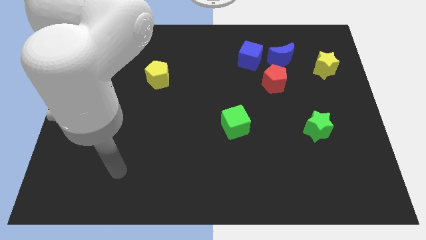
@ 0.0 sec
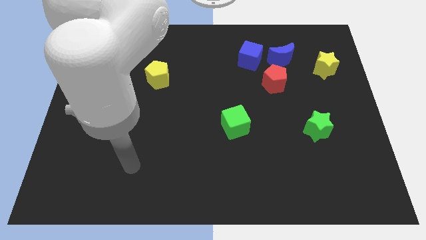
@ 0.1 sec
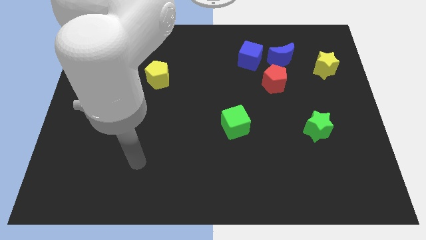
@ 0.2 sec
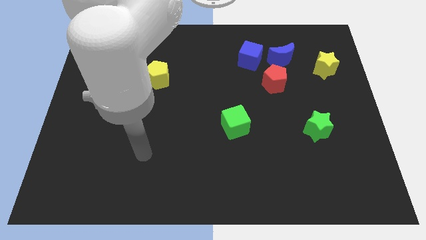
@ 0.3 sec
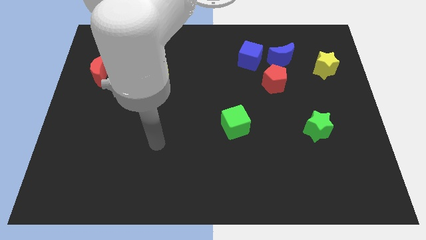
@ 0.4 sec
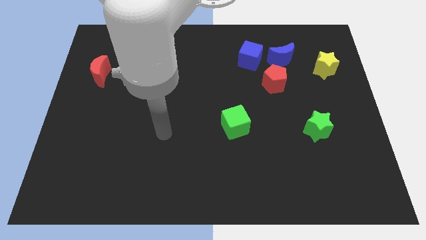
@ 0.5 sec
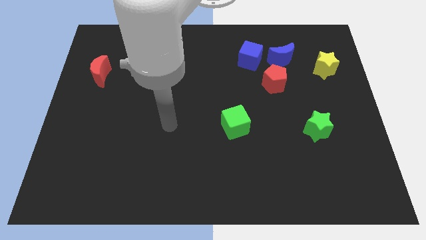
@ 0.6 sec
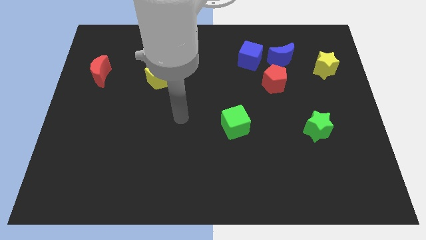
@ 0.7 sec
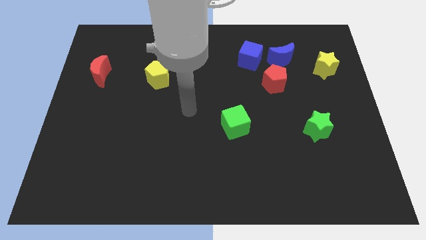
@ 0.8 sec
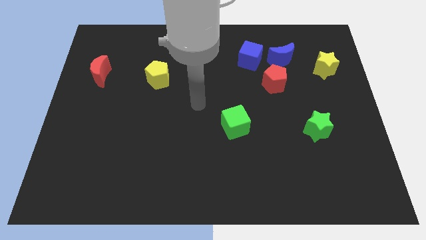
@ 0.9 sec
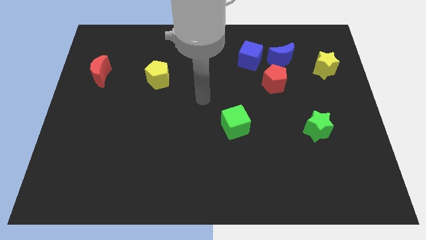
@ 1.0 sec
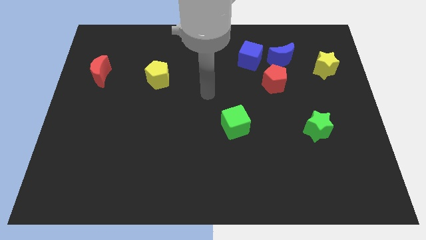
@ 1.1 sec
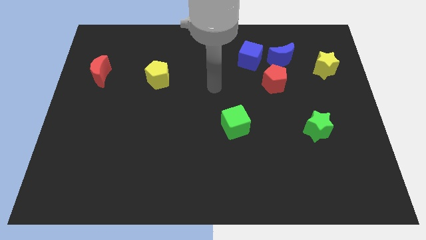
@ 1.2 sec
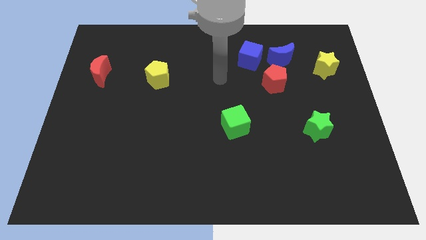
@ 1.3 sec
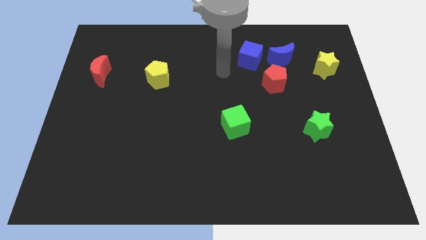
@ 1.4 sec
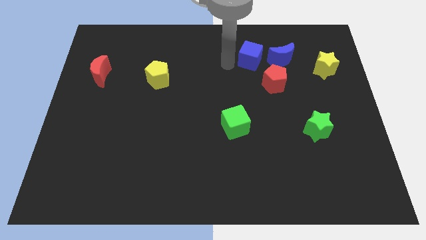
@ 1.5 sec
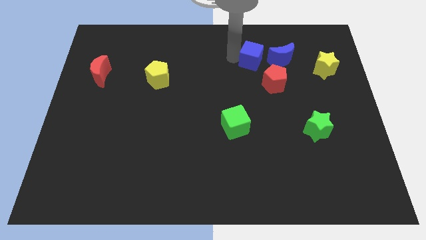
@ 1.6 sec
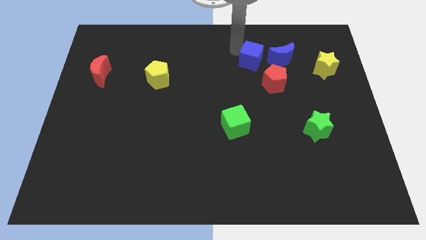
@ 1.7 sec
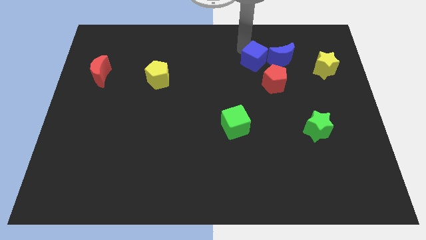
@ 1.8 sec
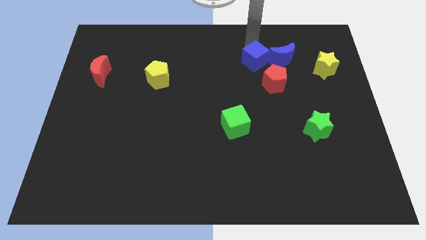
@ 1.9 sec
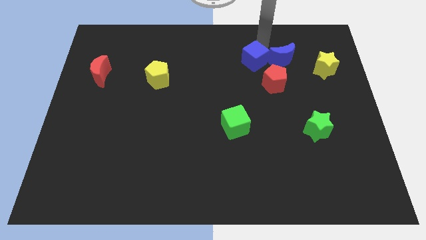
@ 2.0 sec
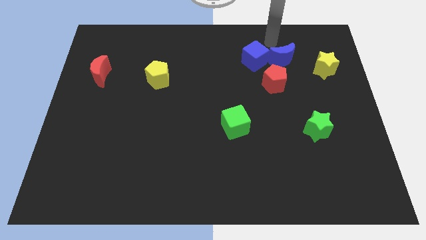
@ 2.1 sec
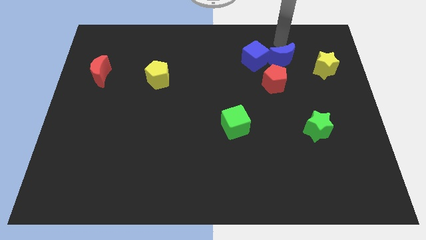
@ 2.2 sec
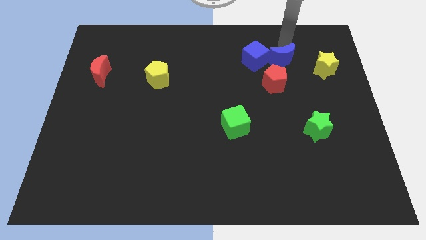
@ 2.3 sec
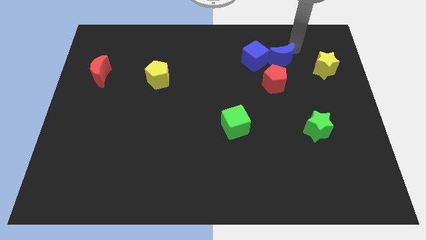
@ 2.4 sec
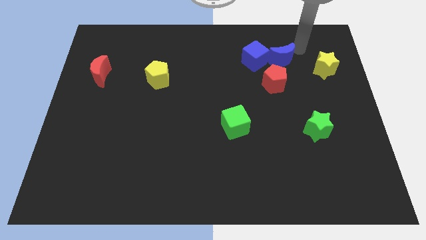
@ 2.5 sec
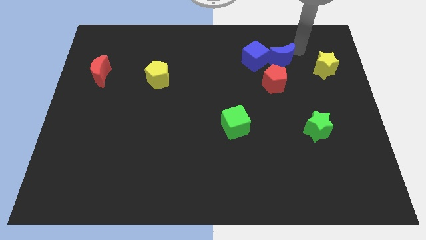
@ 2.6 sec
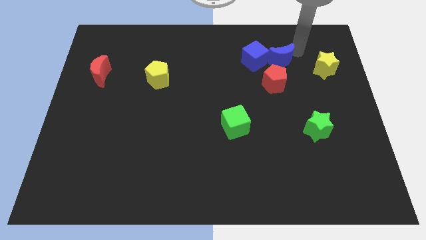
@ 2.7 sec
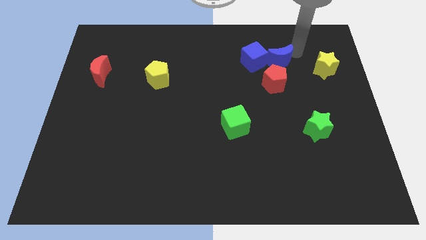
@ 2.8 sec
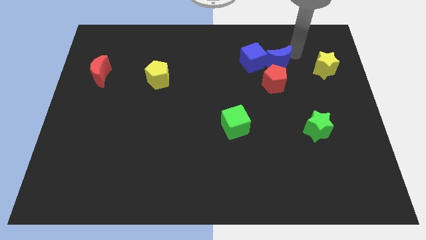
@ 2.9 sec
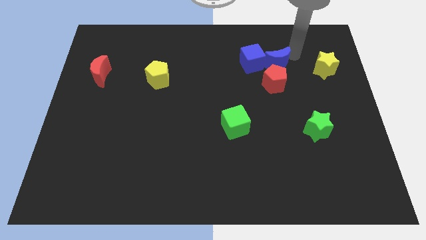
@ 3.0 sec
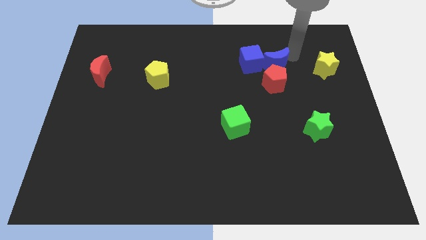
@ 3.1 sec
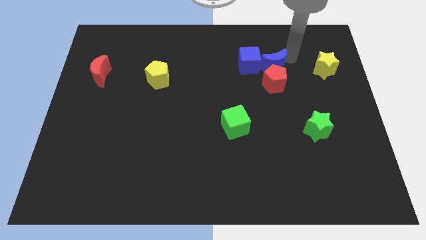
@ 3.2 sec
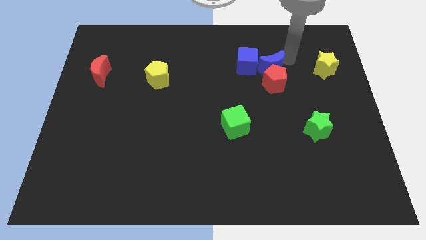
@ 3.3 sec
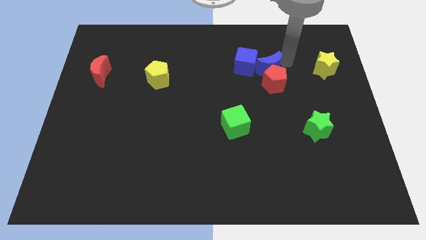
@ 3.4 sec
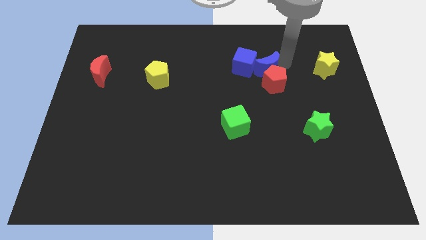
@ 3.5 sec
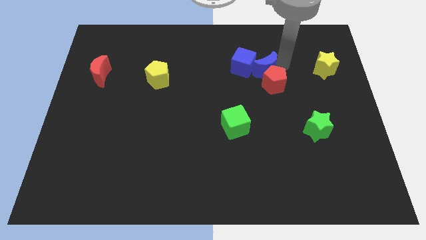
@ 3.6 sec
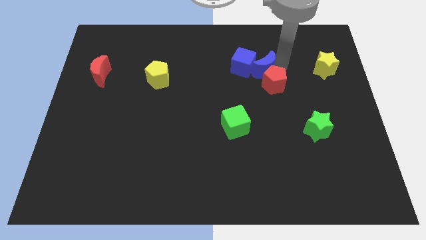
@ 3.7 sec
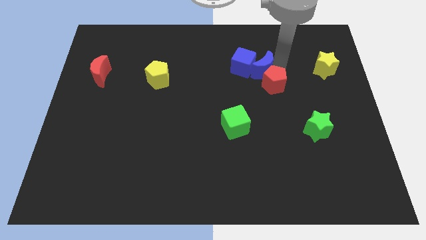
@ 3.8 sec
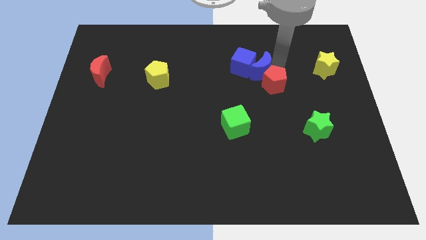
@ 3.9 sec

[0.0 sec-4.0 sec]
slightly slide the blue moon downwards and then left

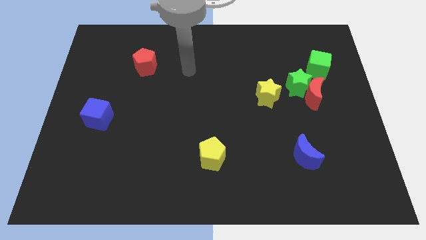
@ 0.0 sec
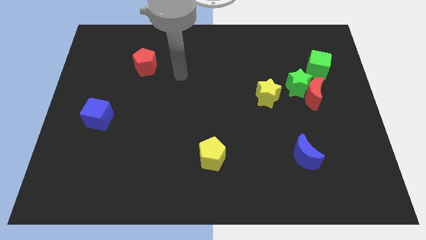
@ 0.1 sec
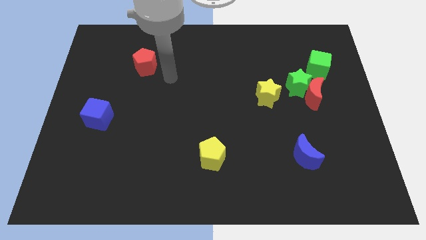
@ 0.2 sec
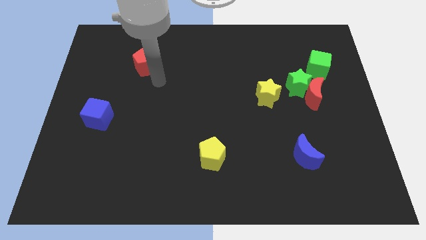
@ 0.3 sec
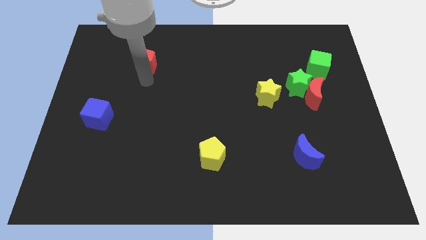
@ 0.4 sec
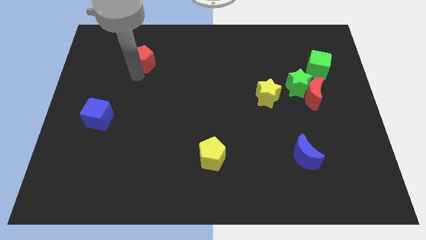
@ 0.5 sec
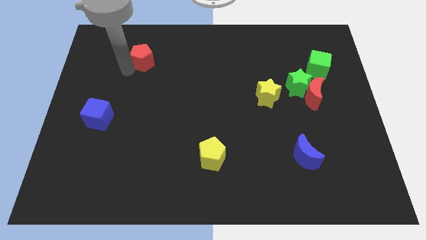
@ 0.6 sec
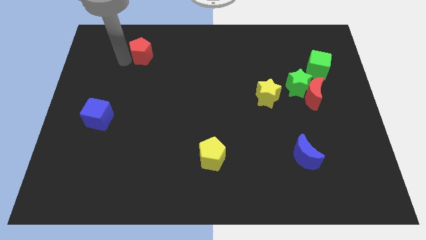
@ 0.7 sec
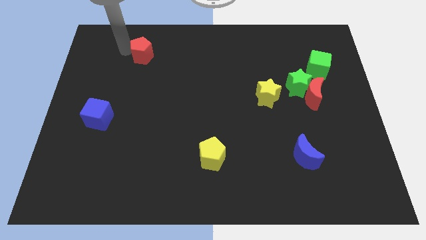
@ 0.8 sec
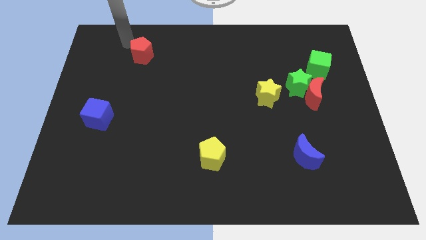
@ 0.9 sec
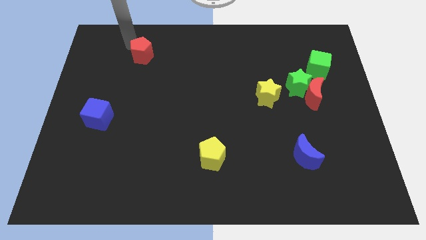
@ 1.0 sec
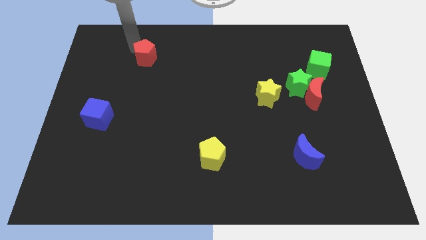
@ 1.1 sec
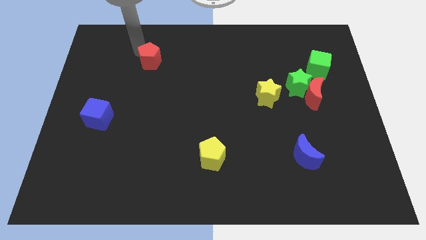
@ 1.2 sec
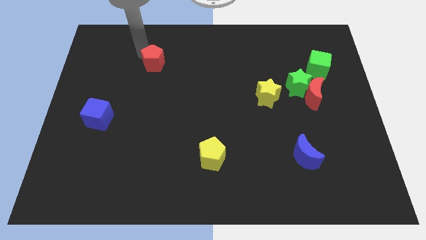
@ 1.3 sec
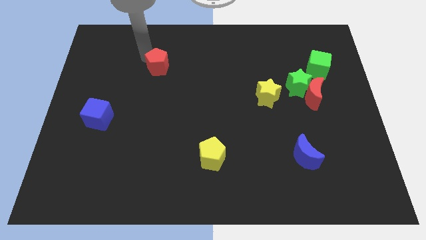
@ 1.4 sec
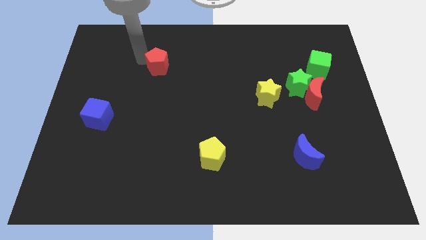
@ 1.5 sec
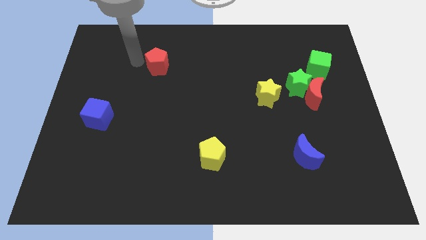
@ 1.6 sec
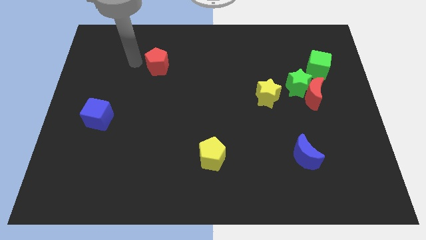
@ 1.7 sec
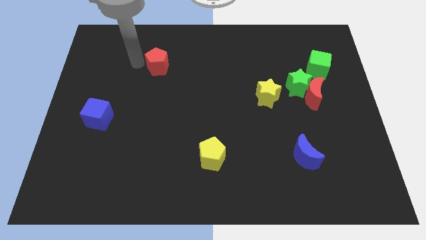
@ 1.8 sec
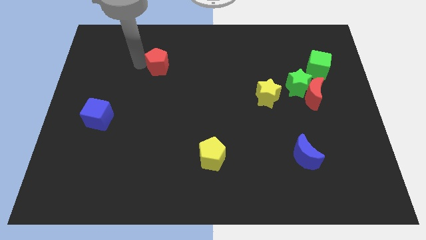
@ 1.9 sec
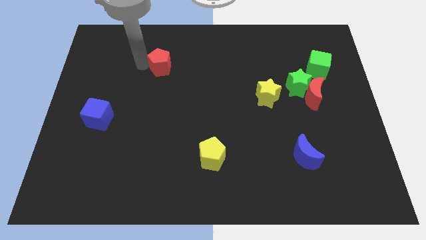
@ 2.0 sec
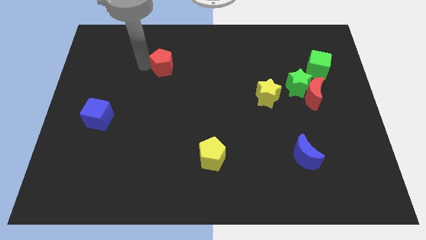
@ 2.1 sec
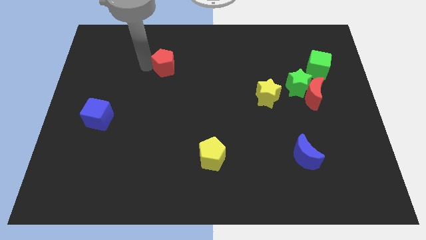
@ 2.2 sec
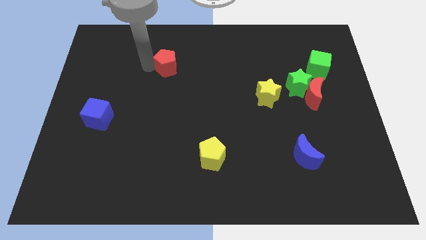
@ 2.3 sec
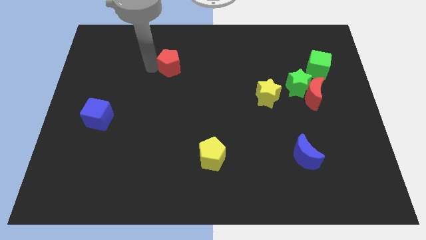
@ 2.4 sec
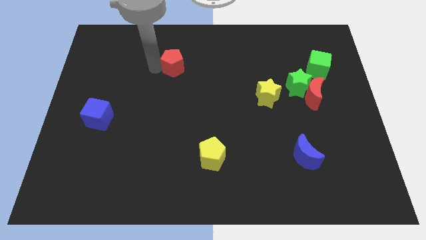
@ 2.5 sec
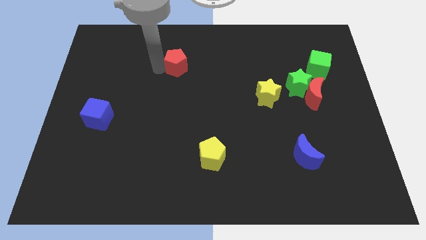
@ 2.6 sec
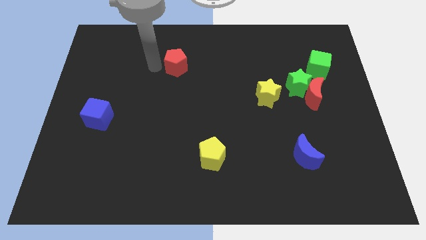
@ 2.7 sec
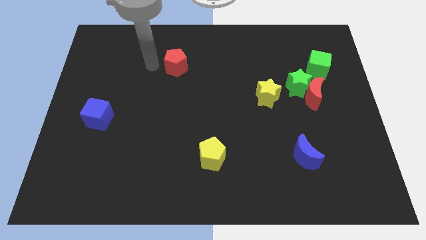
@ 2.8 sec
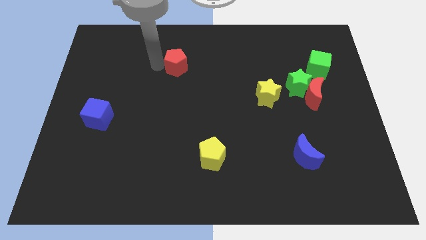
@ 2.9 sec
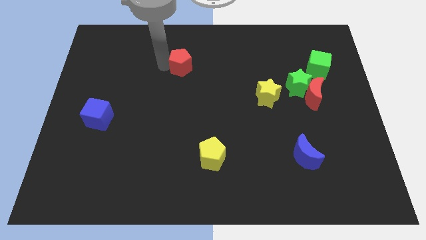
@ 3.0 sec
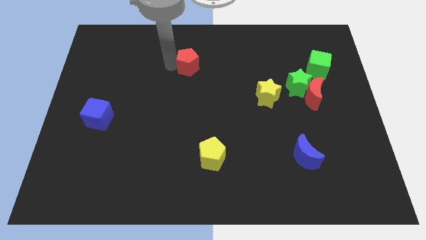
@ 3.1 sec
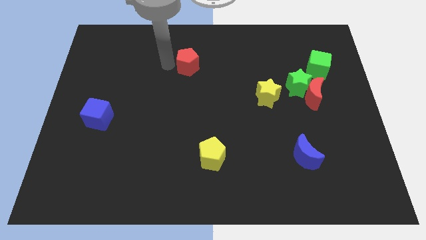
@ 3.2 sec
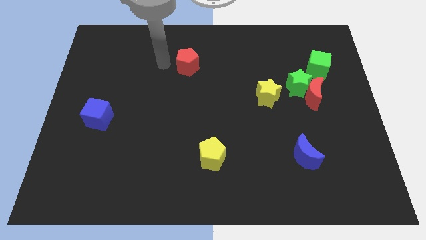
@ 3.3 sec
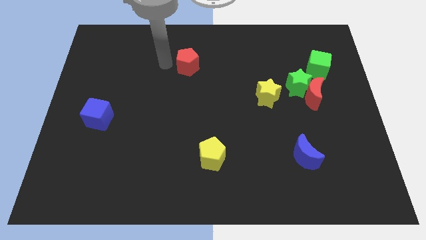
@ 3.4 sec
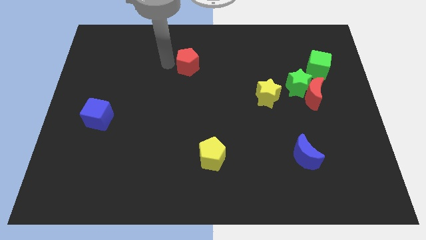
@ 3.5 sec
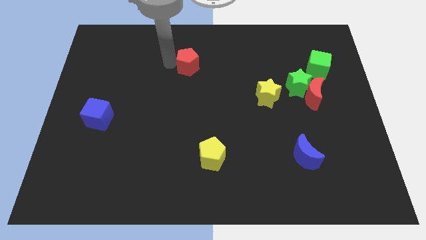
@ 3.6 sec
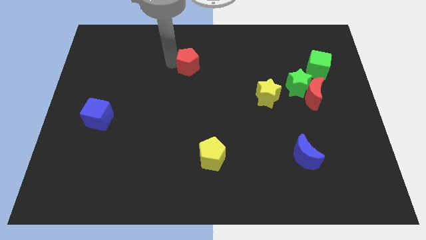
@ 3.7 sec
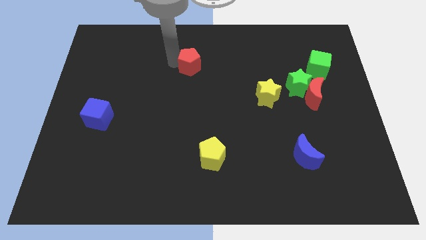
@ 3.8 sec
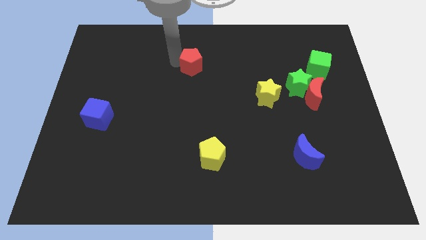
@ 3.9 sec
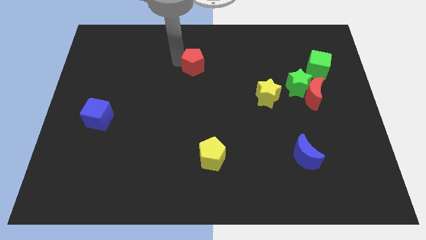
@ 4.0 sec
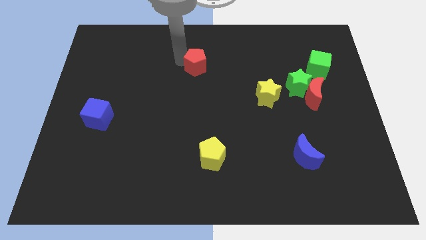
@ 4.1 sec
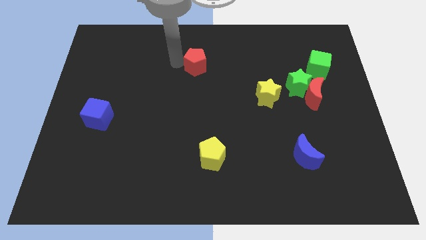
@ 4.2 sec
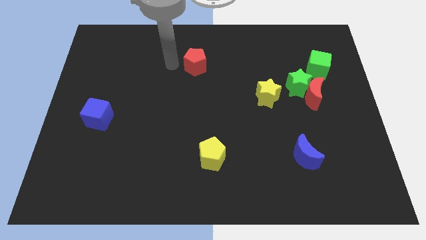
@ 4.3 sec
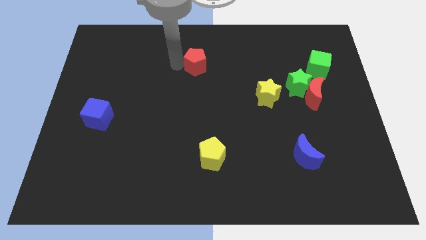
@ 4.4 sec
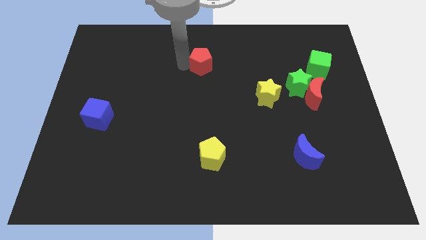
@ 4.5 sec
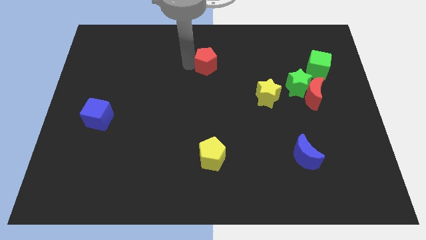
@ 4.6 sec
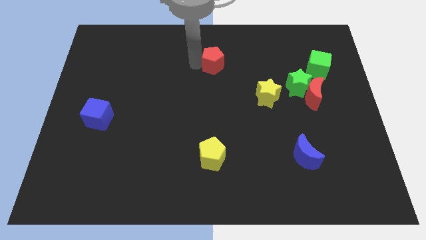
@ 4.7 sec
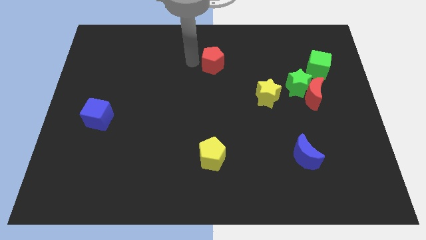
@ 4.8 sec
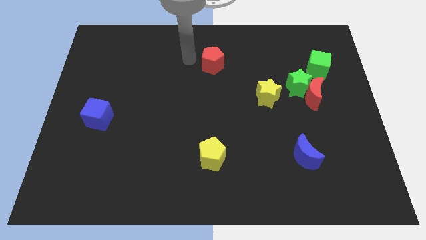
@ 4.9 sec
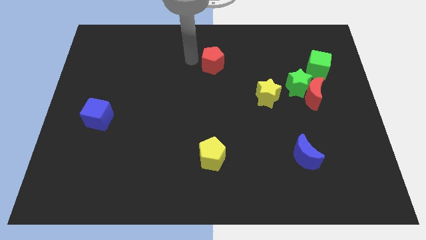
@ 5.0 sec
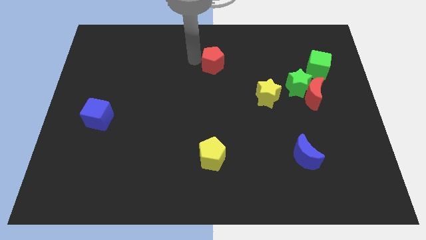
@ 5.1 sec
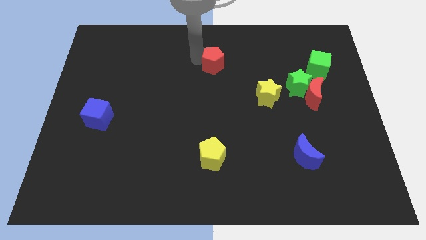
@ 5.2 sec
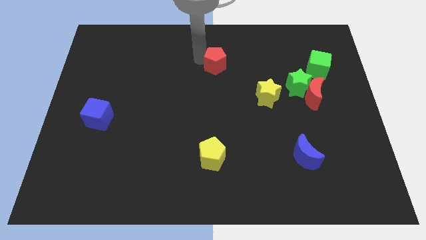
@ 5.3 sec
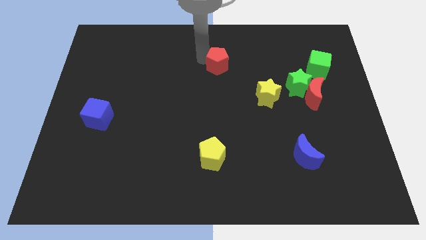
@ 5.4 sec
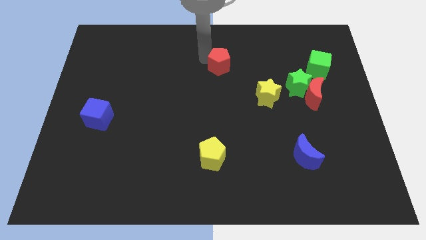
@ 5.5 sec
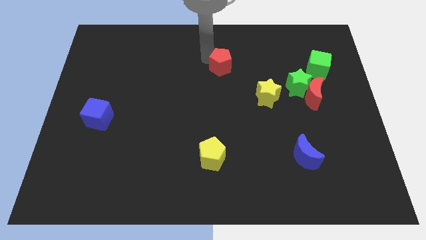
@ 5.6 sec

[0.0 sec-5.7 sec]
move the red pentagon to the right
